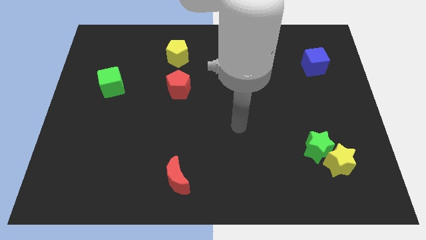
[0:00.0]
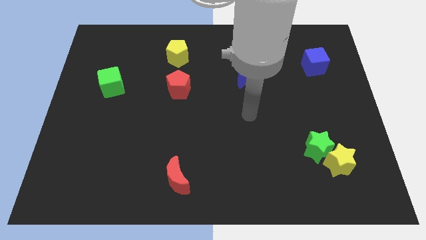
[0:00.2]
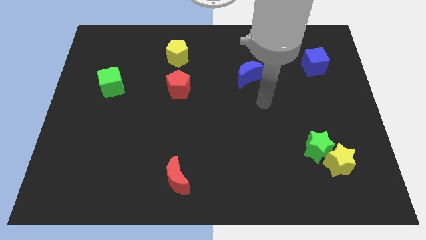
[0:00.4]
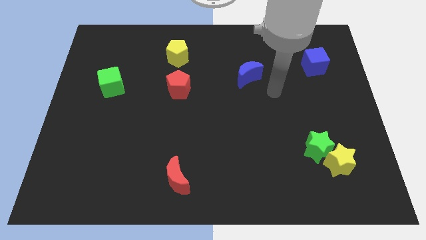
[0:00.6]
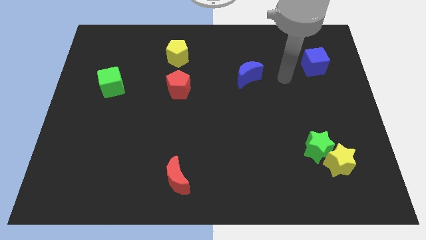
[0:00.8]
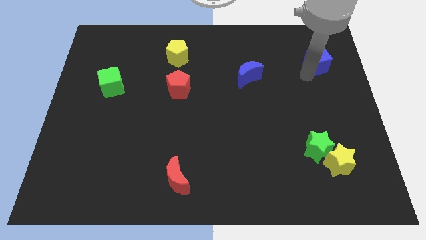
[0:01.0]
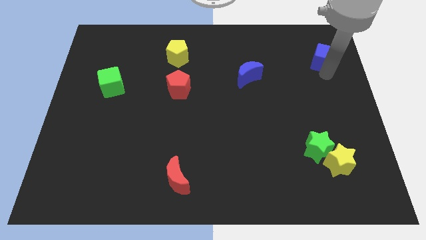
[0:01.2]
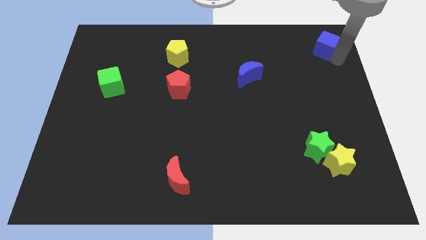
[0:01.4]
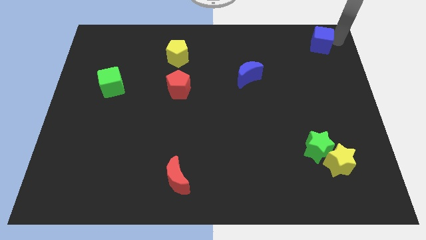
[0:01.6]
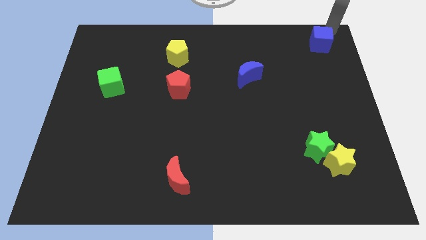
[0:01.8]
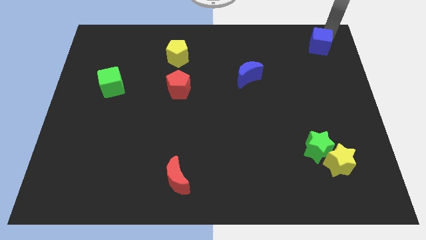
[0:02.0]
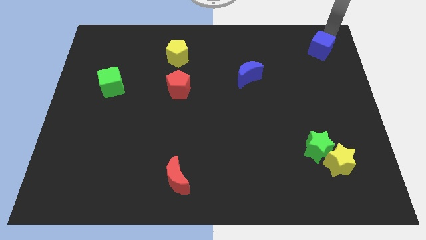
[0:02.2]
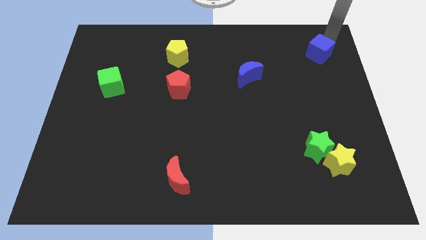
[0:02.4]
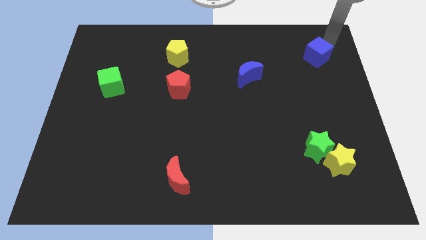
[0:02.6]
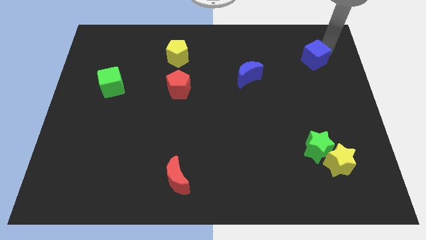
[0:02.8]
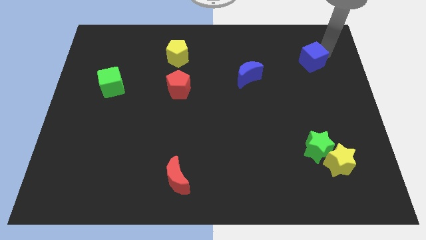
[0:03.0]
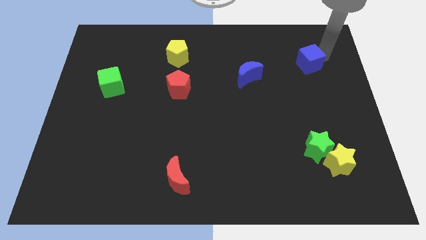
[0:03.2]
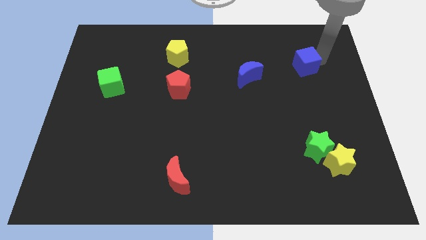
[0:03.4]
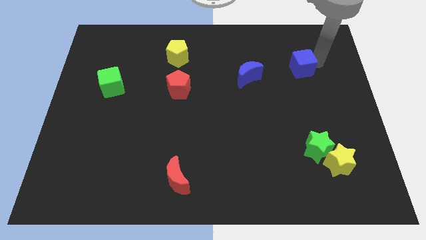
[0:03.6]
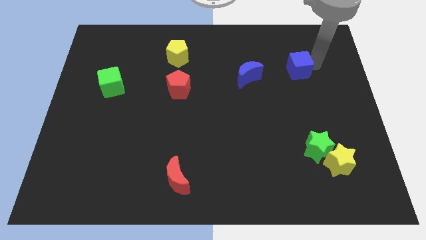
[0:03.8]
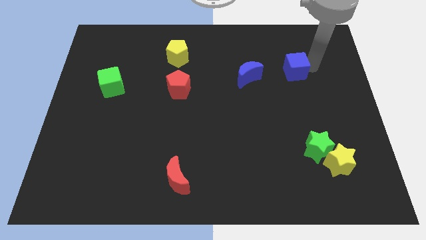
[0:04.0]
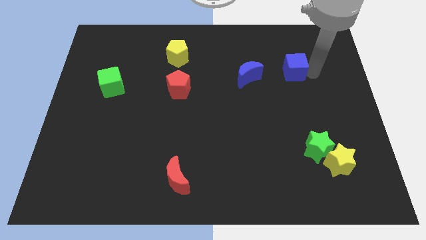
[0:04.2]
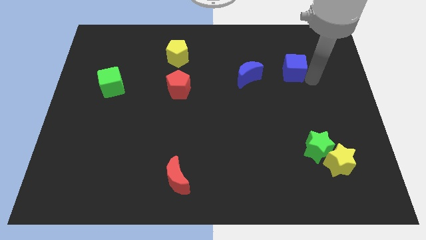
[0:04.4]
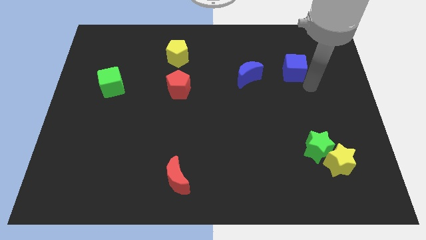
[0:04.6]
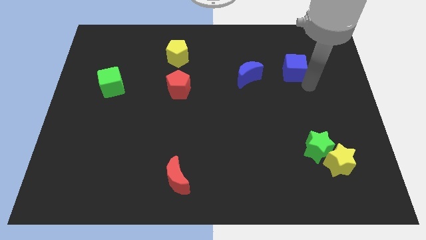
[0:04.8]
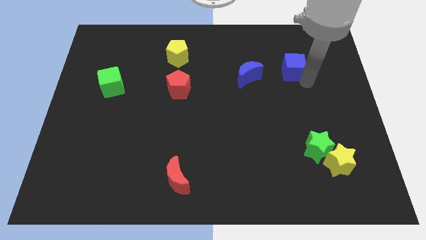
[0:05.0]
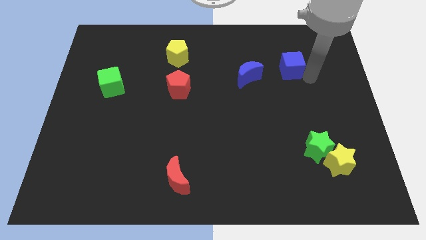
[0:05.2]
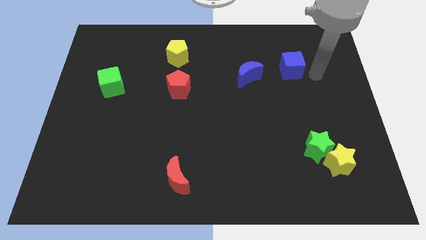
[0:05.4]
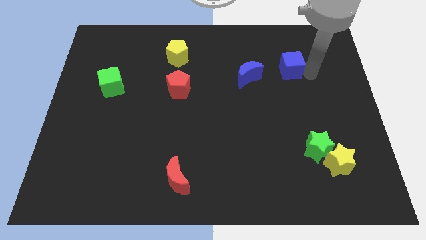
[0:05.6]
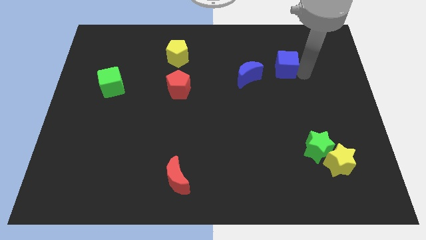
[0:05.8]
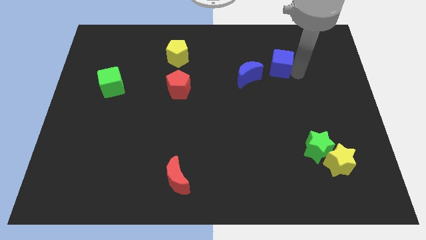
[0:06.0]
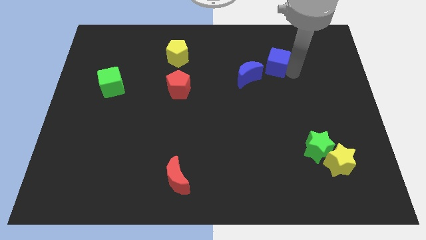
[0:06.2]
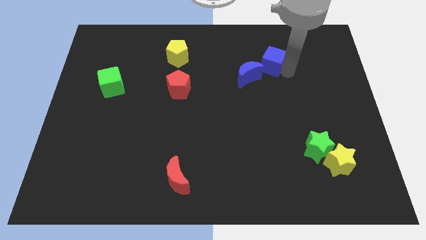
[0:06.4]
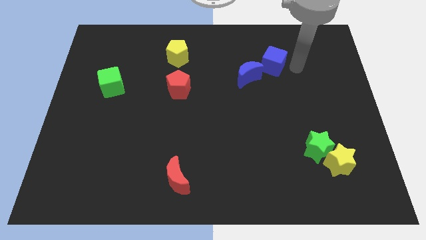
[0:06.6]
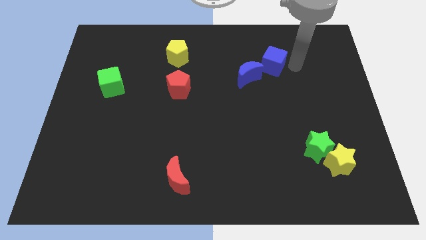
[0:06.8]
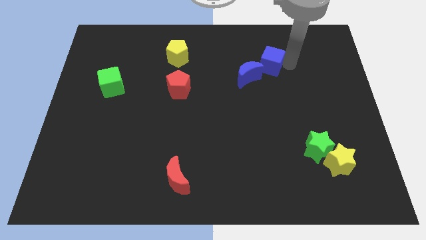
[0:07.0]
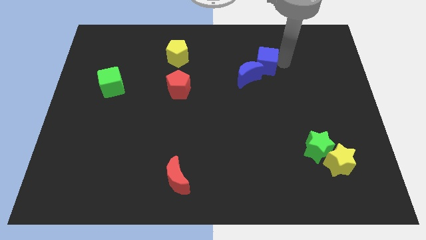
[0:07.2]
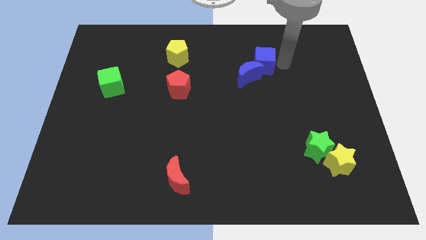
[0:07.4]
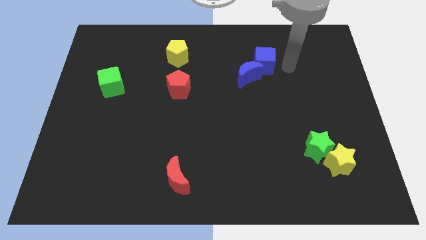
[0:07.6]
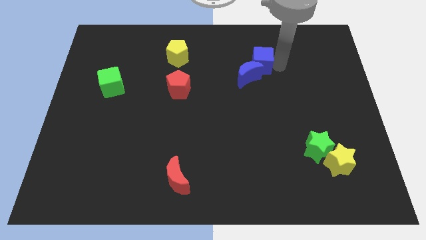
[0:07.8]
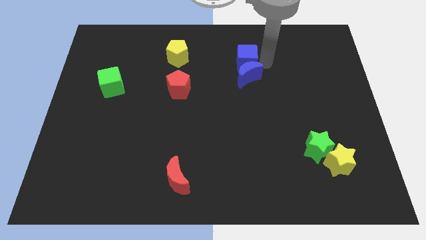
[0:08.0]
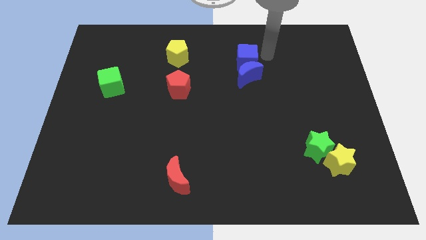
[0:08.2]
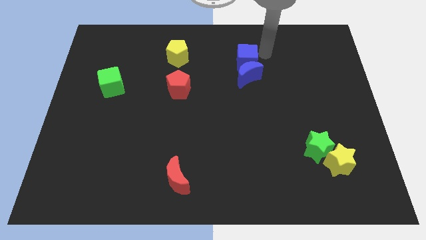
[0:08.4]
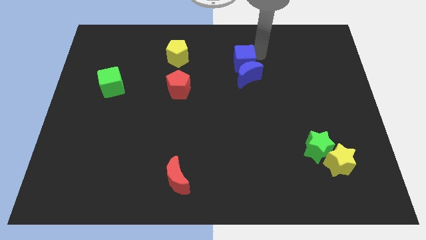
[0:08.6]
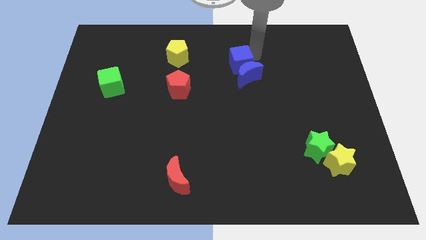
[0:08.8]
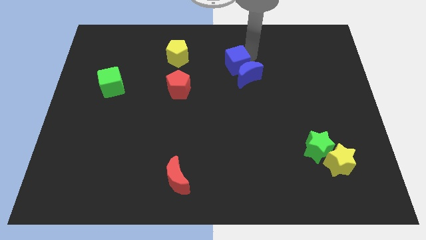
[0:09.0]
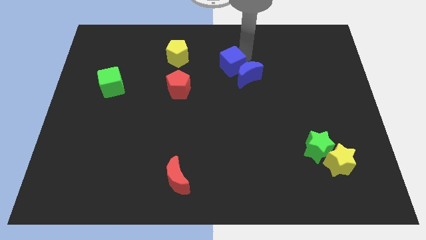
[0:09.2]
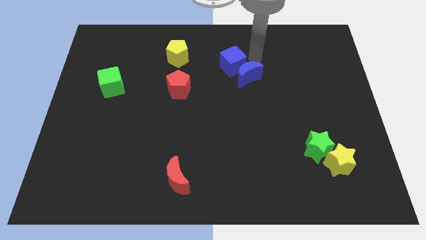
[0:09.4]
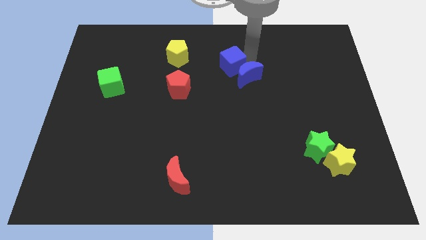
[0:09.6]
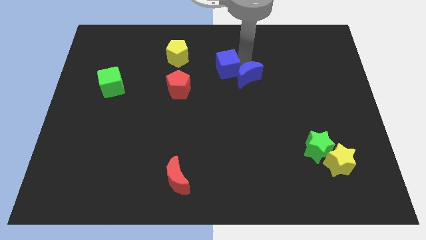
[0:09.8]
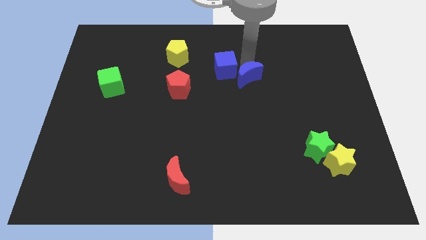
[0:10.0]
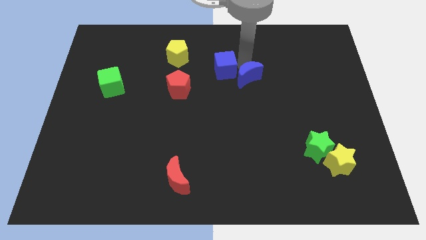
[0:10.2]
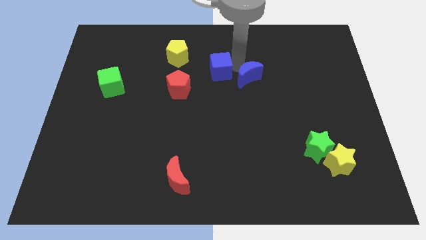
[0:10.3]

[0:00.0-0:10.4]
slide the blue cube diagonally up and to the right of the red pentagon

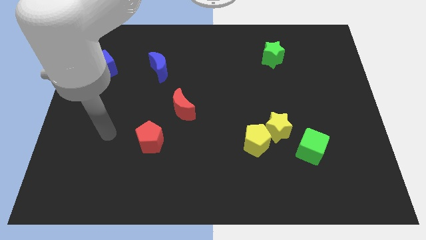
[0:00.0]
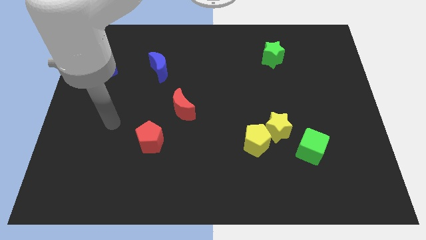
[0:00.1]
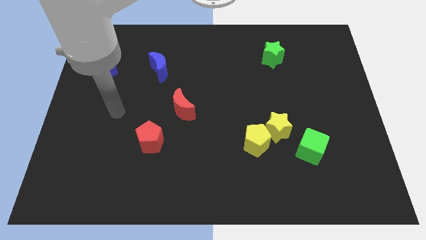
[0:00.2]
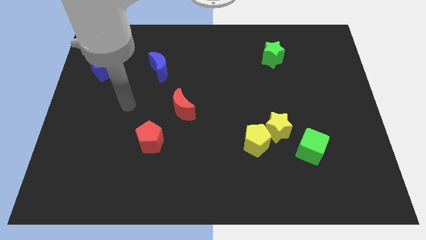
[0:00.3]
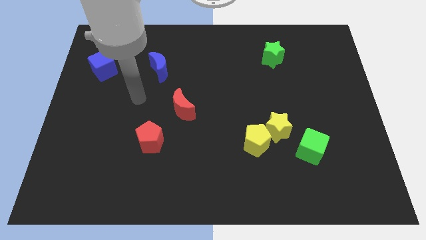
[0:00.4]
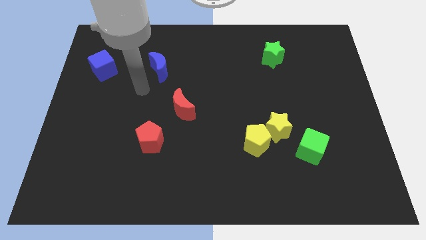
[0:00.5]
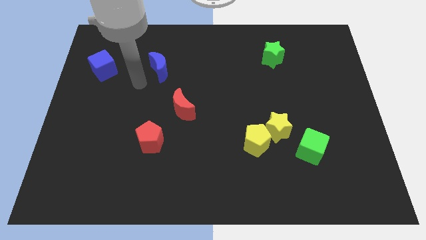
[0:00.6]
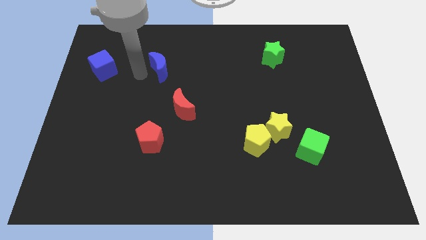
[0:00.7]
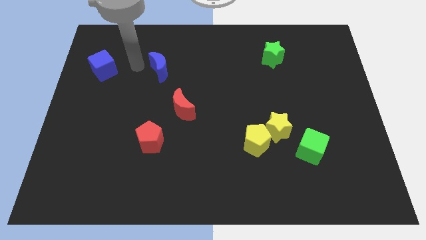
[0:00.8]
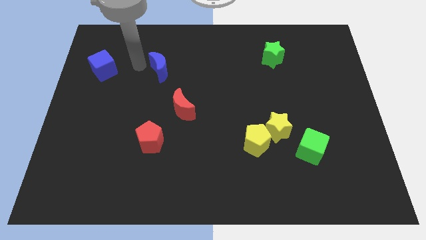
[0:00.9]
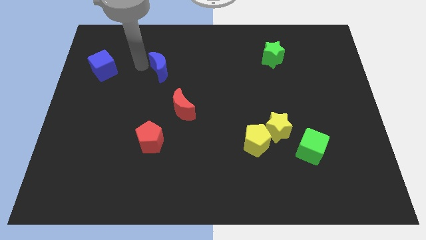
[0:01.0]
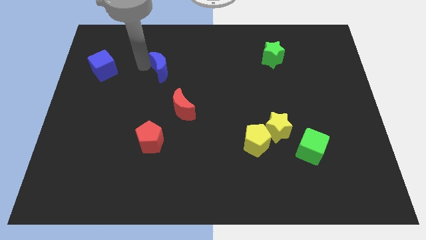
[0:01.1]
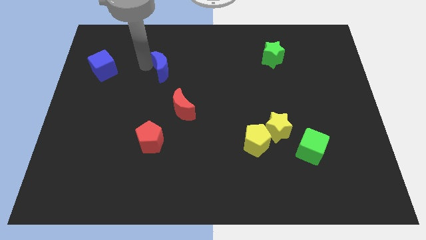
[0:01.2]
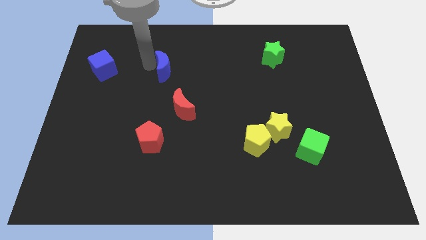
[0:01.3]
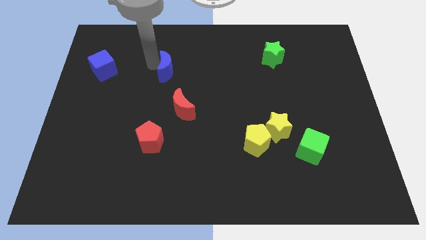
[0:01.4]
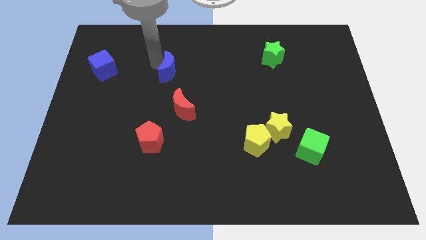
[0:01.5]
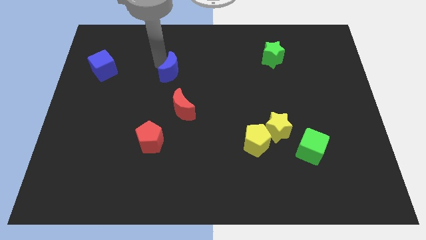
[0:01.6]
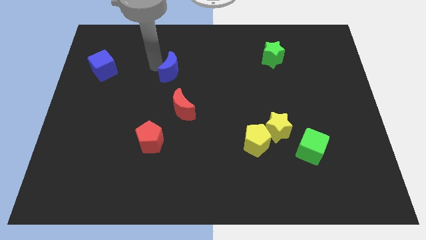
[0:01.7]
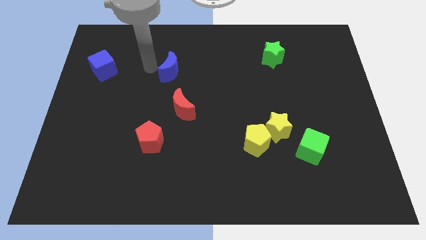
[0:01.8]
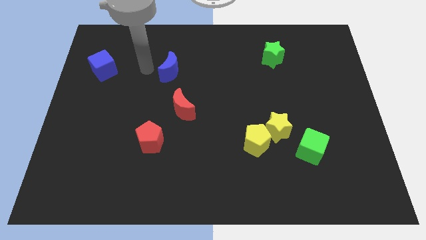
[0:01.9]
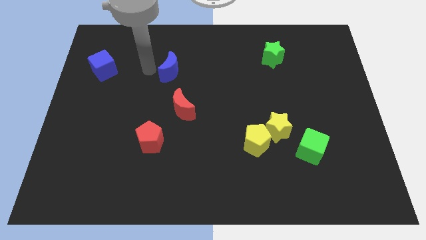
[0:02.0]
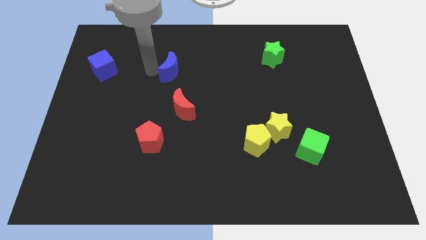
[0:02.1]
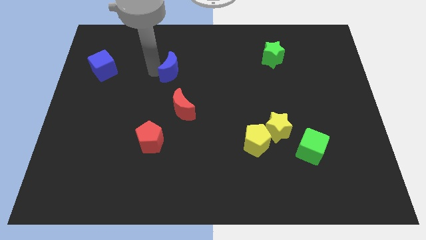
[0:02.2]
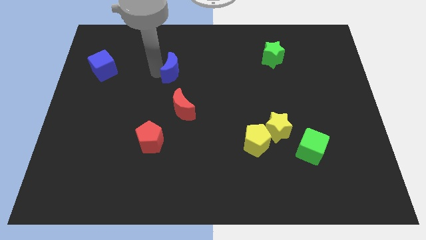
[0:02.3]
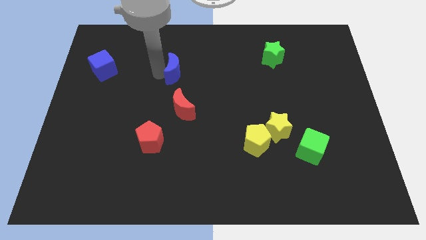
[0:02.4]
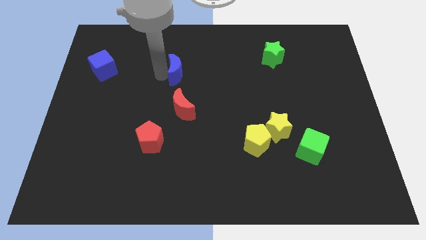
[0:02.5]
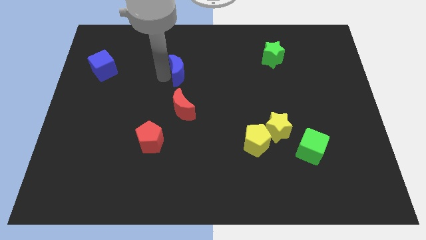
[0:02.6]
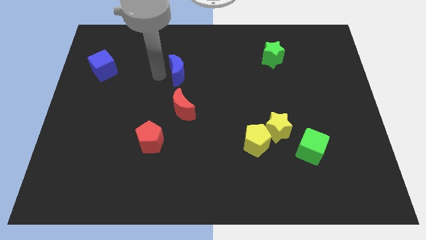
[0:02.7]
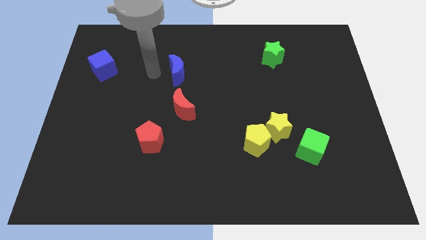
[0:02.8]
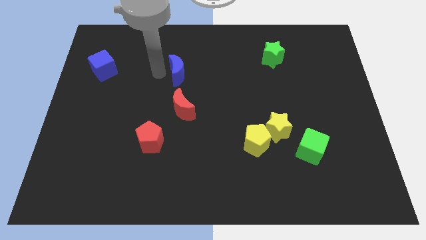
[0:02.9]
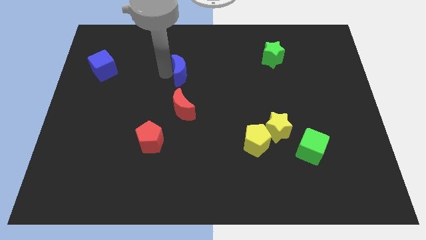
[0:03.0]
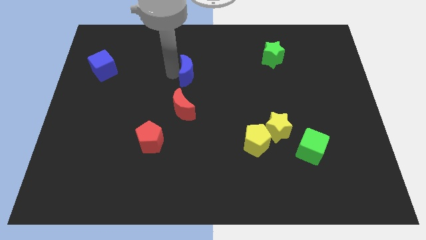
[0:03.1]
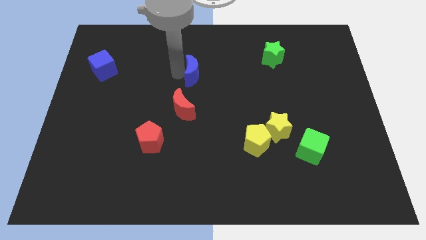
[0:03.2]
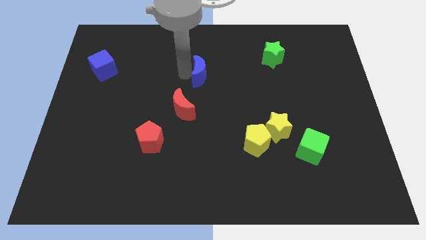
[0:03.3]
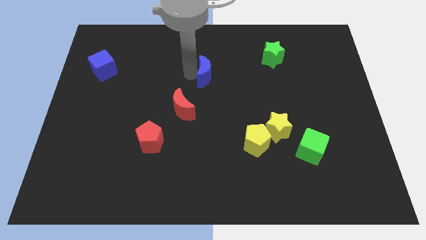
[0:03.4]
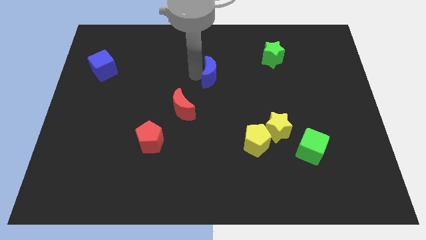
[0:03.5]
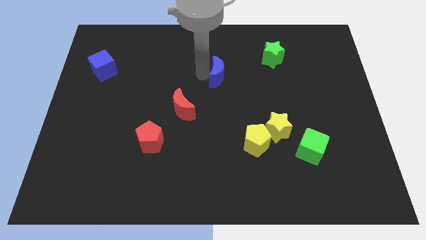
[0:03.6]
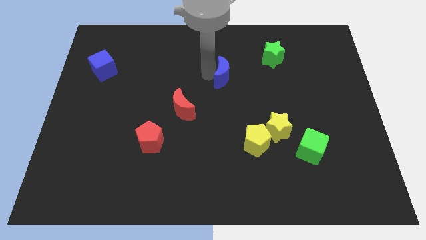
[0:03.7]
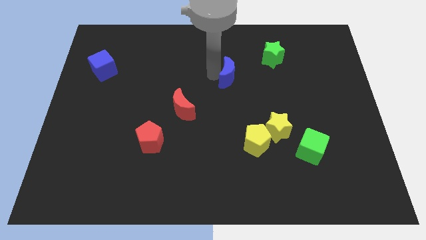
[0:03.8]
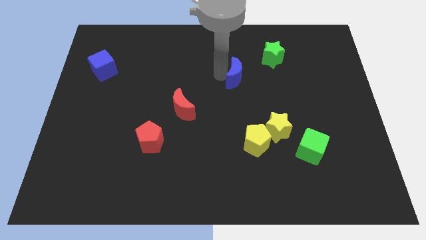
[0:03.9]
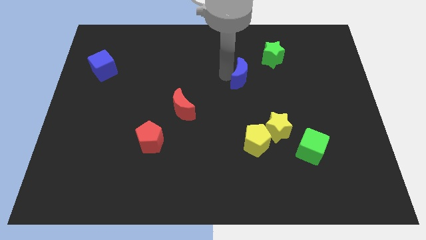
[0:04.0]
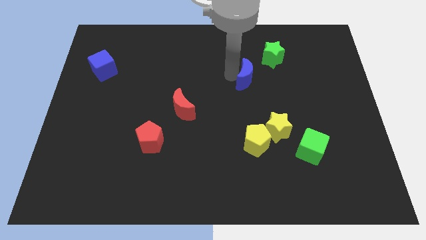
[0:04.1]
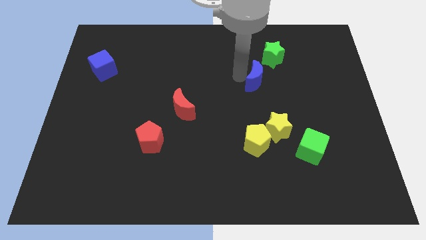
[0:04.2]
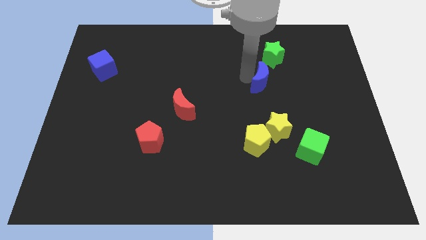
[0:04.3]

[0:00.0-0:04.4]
move the blue moon to the bottom of the green star
